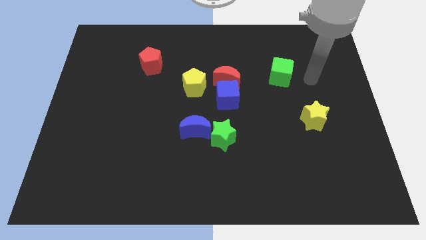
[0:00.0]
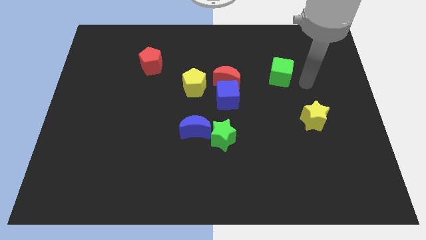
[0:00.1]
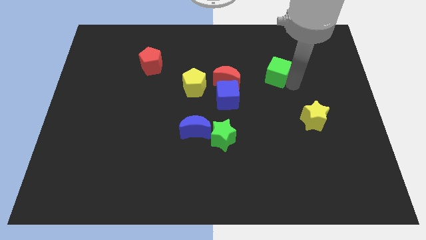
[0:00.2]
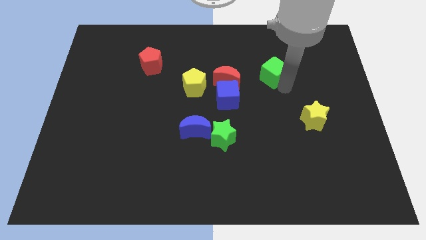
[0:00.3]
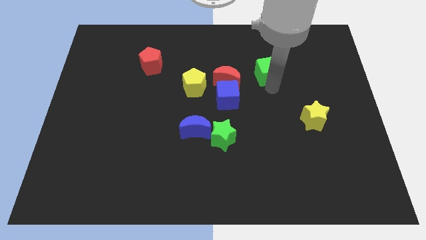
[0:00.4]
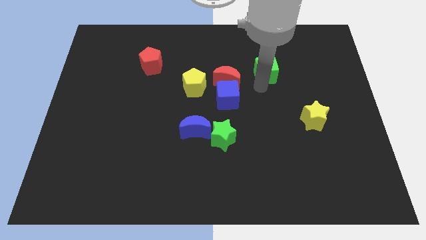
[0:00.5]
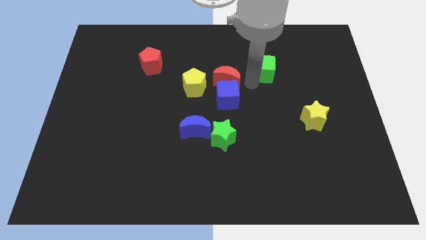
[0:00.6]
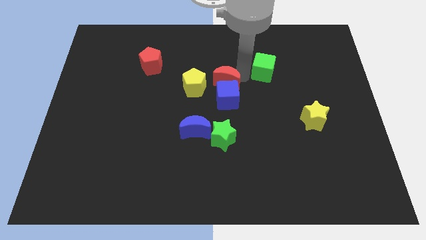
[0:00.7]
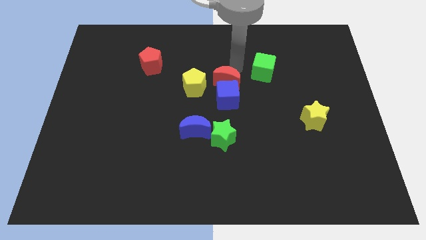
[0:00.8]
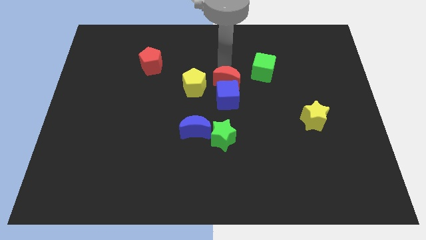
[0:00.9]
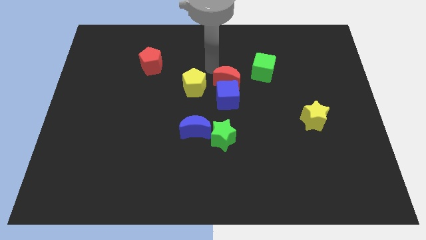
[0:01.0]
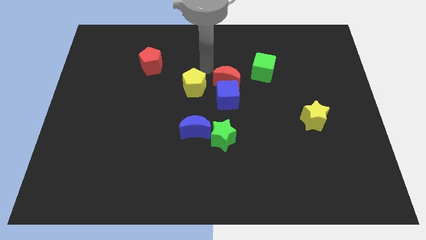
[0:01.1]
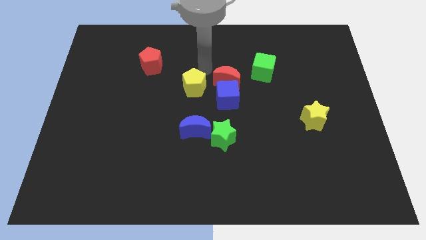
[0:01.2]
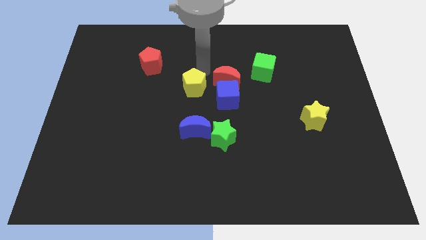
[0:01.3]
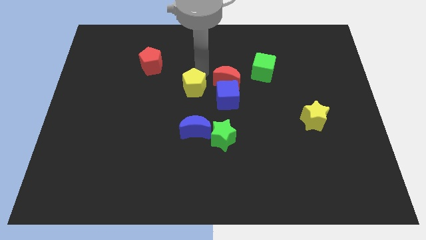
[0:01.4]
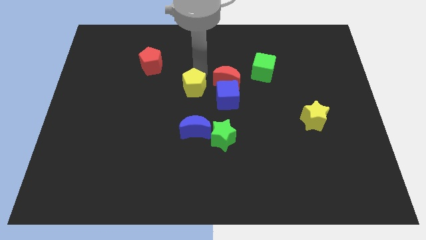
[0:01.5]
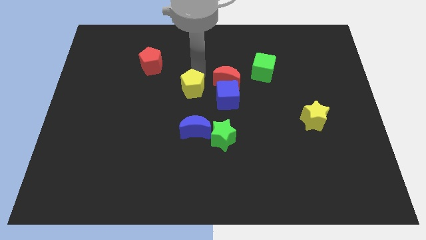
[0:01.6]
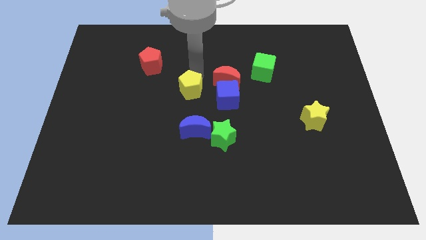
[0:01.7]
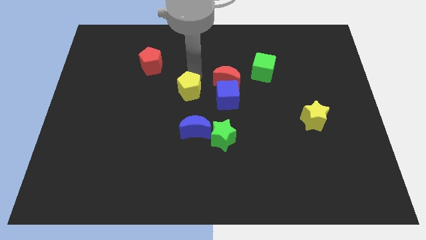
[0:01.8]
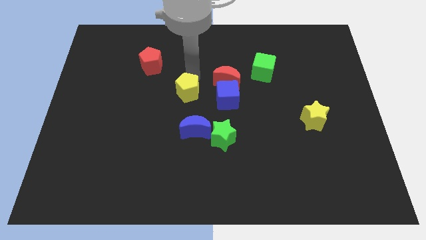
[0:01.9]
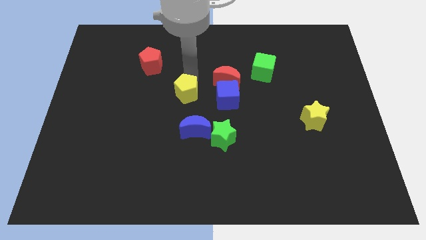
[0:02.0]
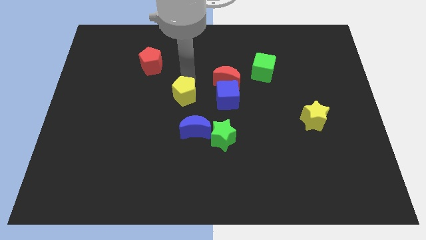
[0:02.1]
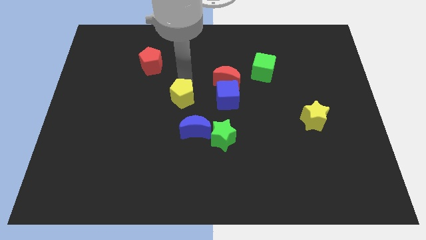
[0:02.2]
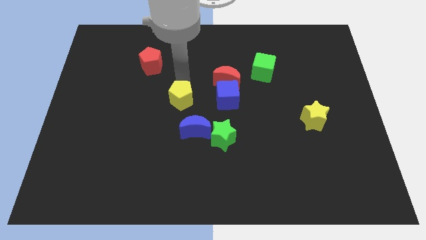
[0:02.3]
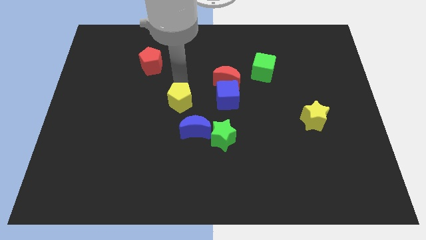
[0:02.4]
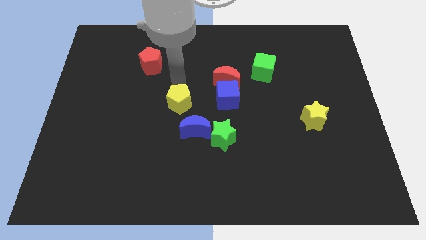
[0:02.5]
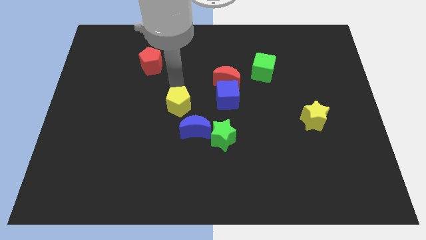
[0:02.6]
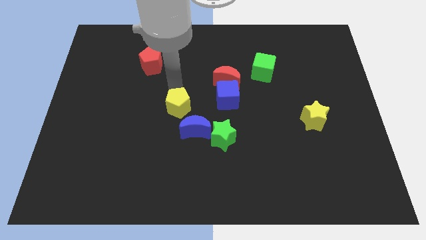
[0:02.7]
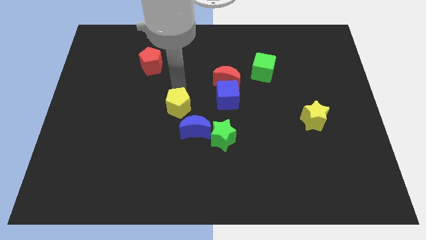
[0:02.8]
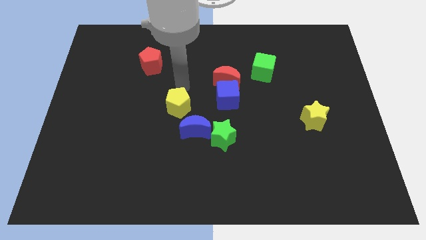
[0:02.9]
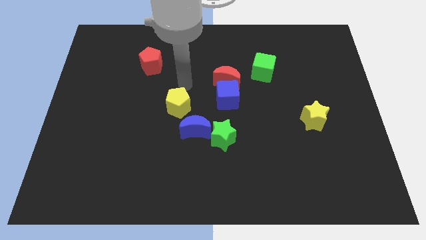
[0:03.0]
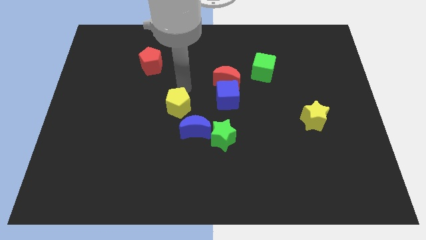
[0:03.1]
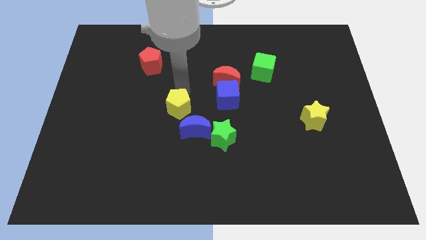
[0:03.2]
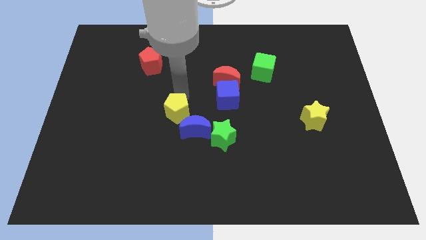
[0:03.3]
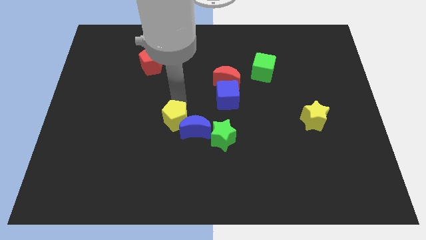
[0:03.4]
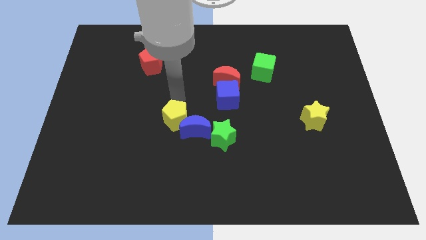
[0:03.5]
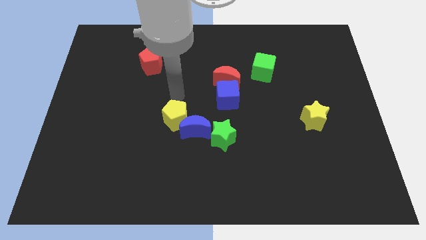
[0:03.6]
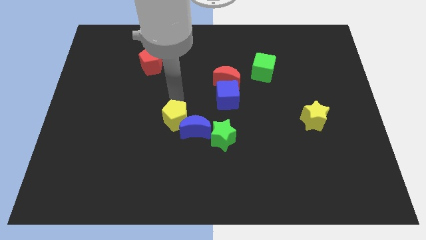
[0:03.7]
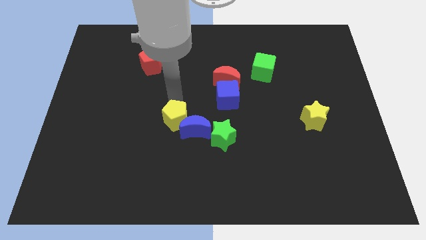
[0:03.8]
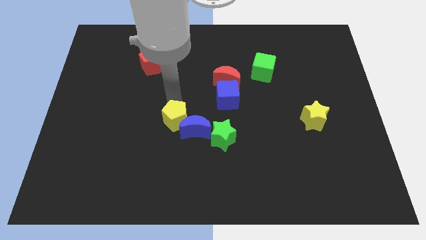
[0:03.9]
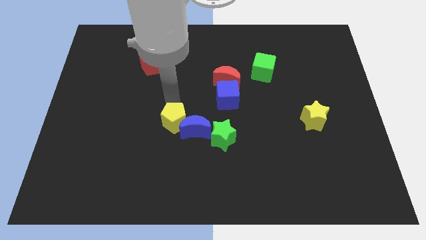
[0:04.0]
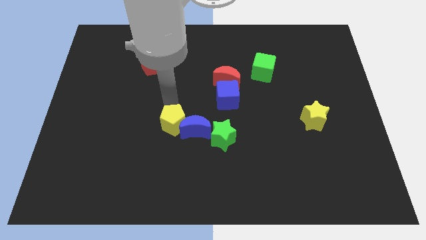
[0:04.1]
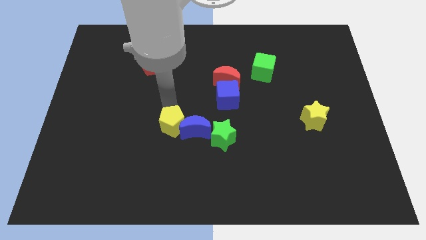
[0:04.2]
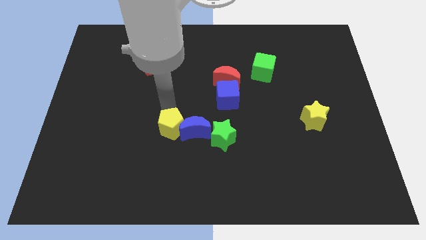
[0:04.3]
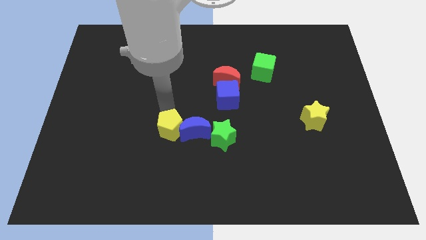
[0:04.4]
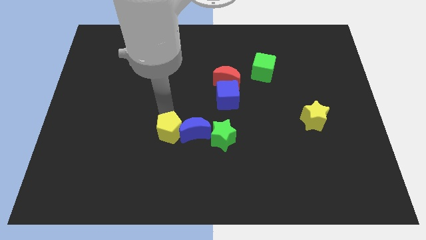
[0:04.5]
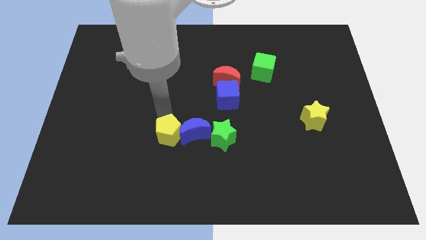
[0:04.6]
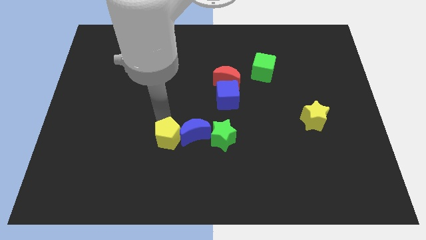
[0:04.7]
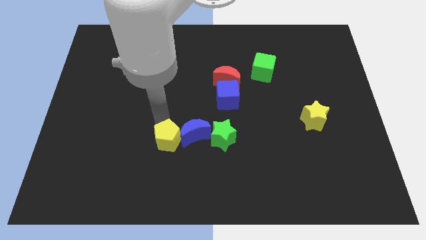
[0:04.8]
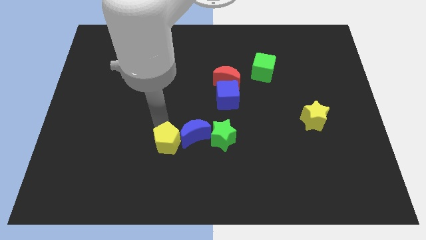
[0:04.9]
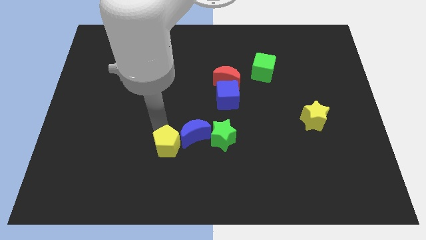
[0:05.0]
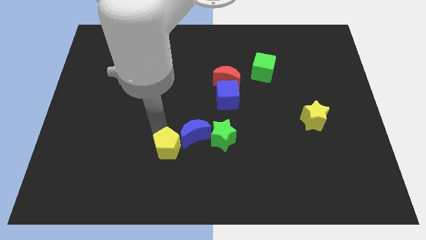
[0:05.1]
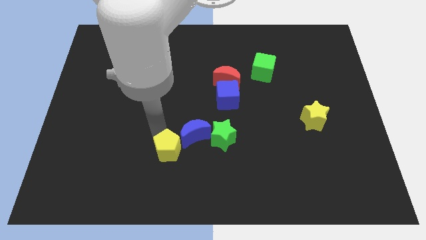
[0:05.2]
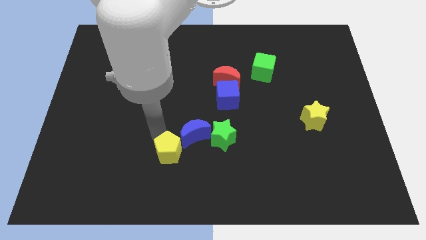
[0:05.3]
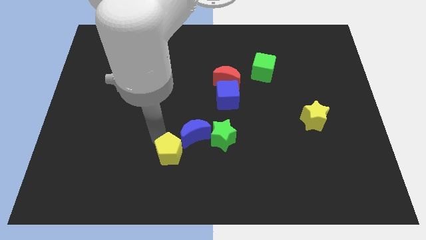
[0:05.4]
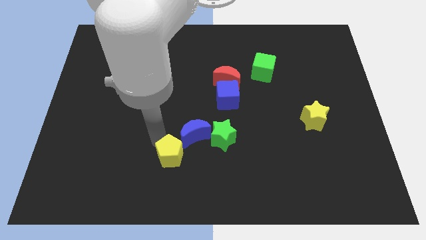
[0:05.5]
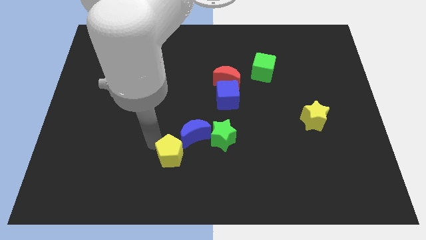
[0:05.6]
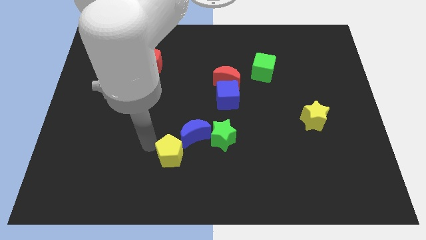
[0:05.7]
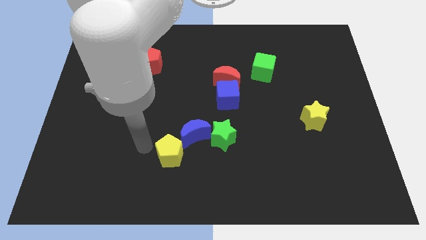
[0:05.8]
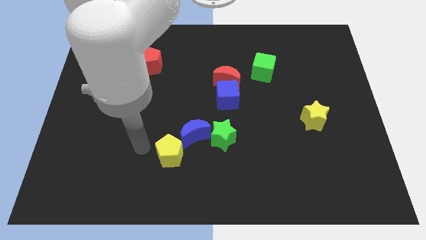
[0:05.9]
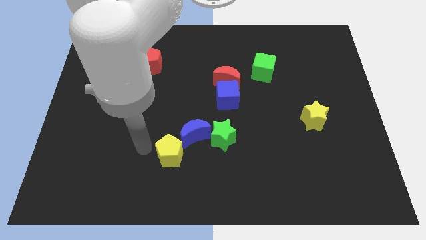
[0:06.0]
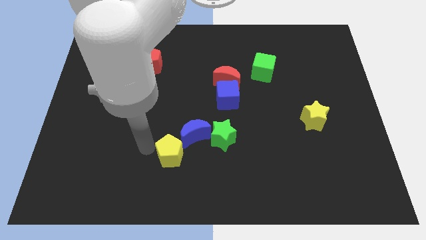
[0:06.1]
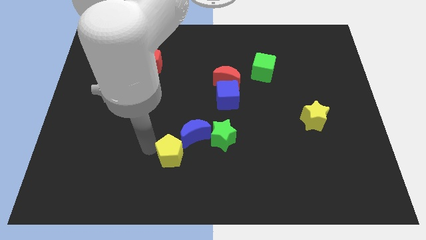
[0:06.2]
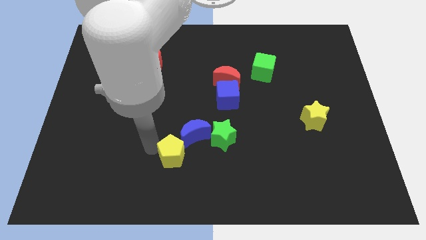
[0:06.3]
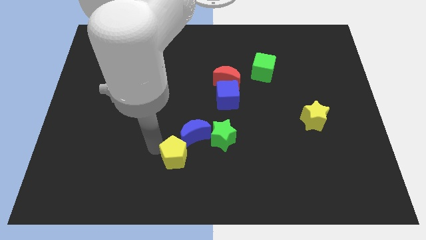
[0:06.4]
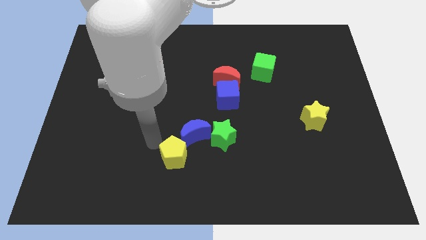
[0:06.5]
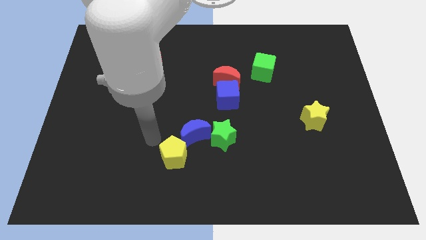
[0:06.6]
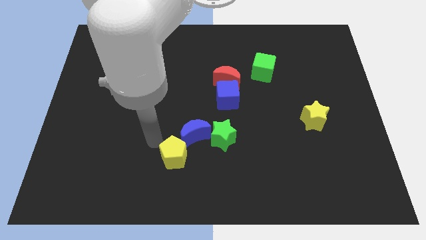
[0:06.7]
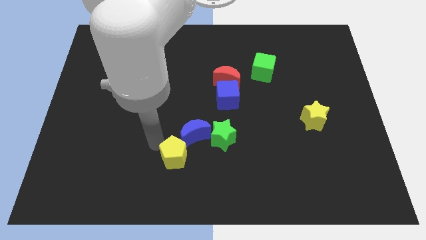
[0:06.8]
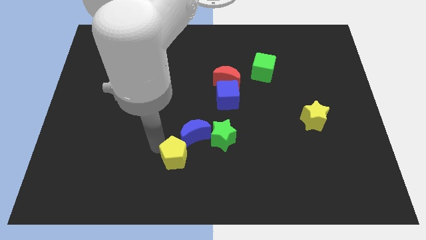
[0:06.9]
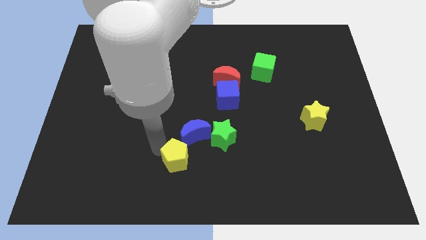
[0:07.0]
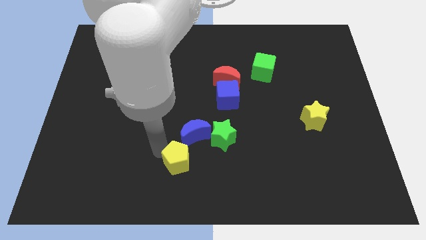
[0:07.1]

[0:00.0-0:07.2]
push the yellow pentagon to the bottom side

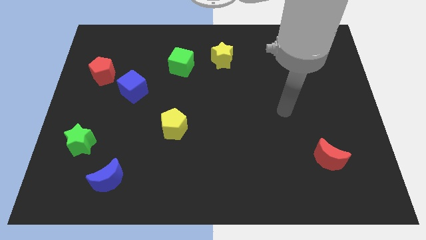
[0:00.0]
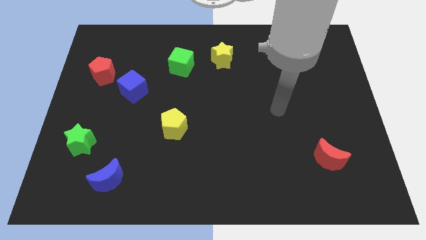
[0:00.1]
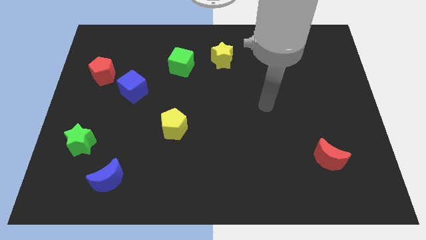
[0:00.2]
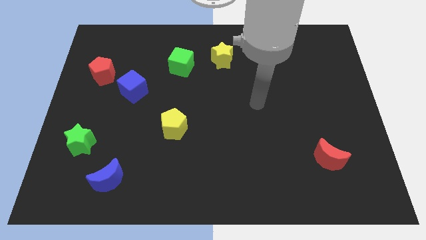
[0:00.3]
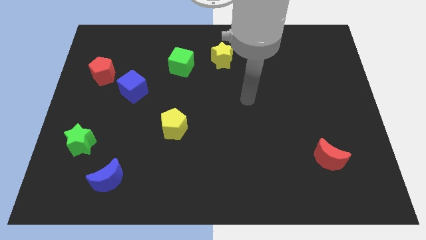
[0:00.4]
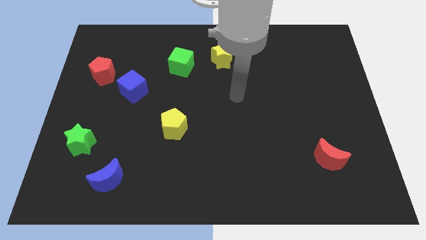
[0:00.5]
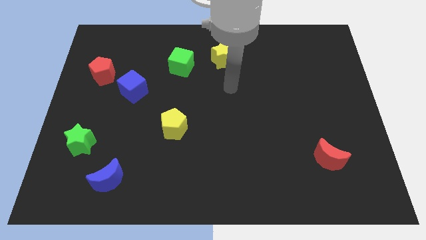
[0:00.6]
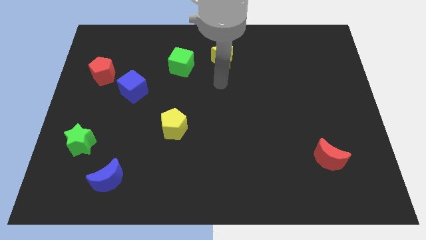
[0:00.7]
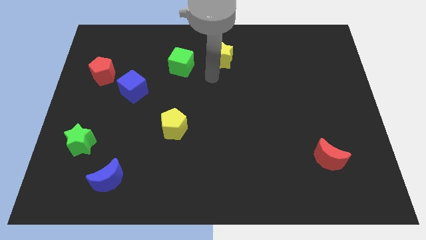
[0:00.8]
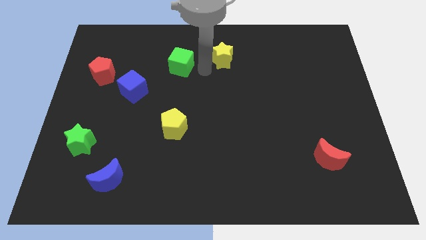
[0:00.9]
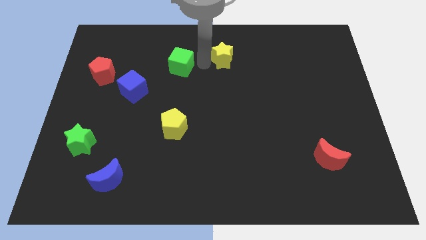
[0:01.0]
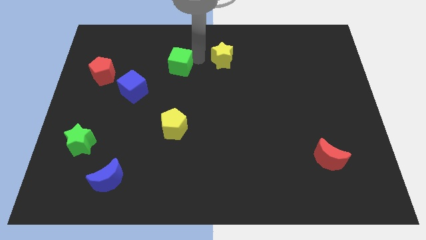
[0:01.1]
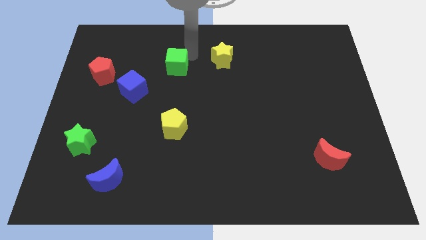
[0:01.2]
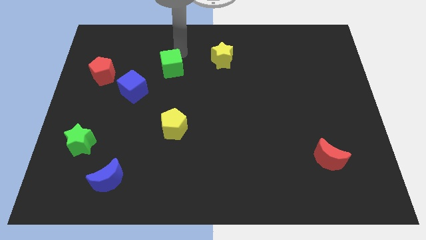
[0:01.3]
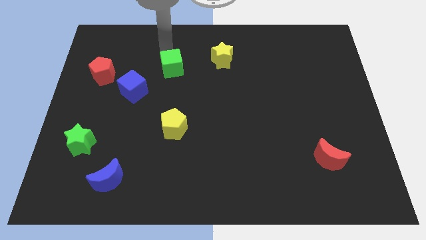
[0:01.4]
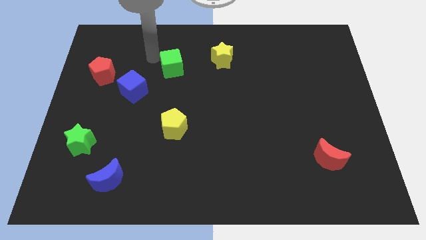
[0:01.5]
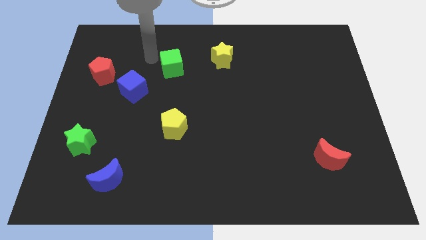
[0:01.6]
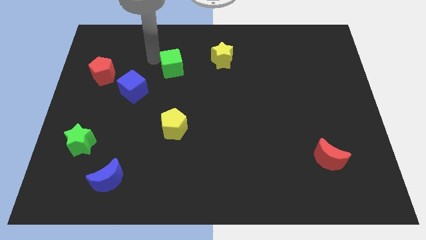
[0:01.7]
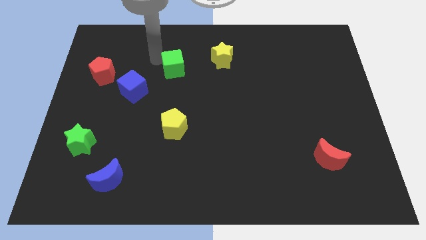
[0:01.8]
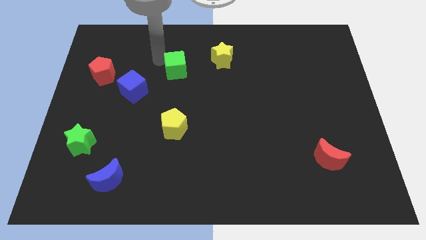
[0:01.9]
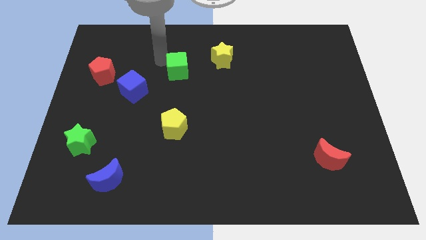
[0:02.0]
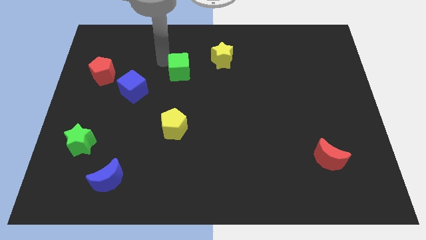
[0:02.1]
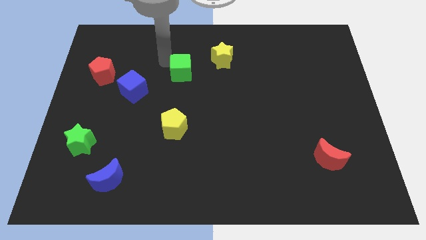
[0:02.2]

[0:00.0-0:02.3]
slide the green cube to the middle of the board
